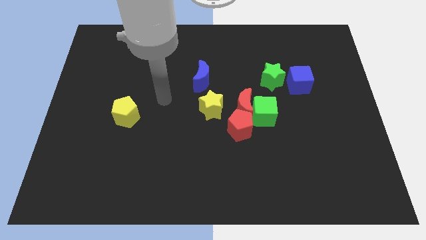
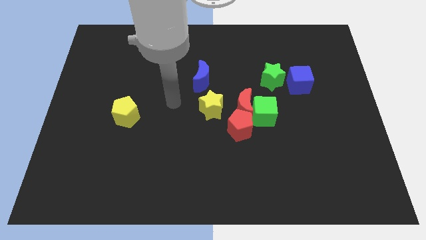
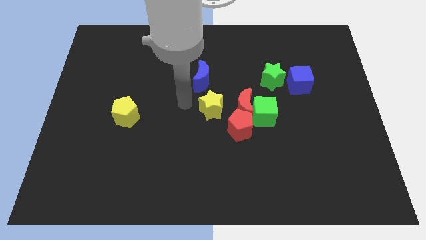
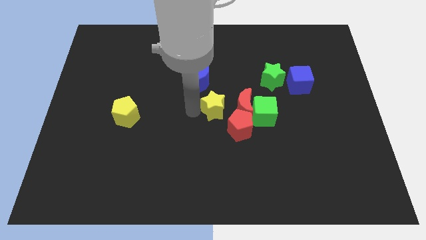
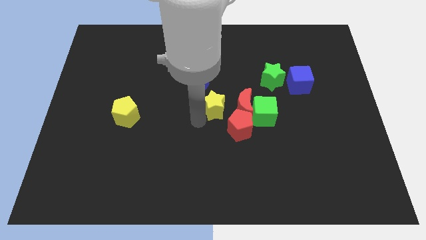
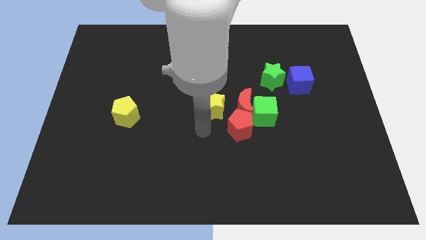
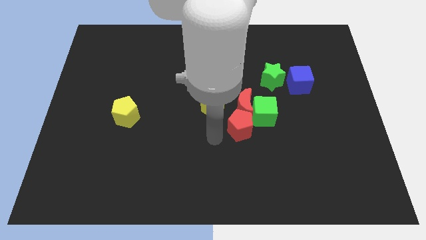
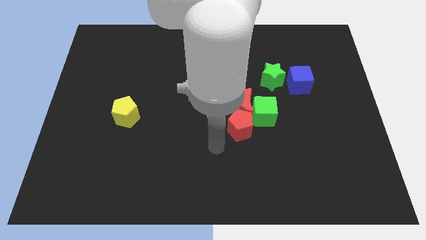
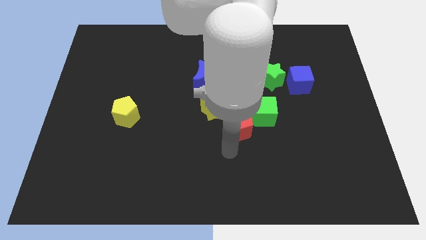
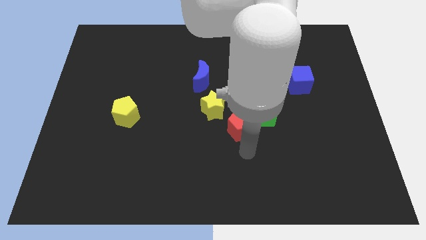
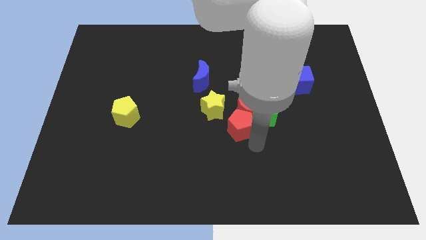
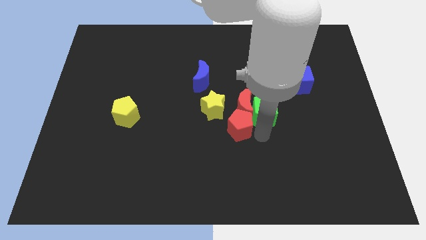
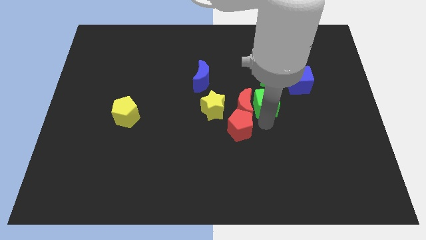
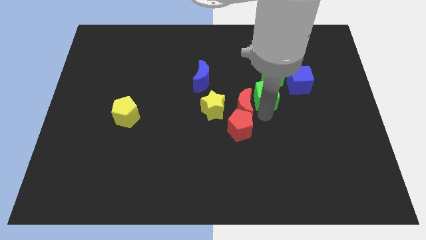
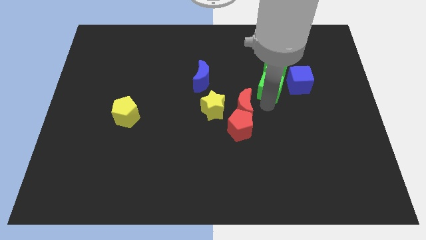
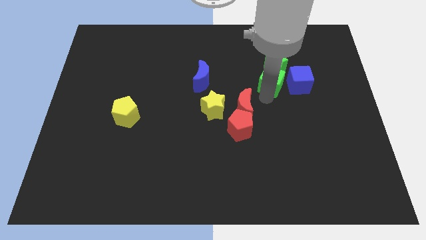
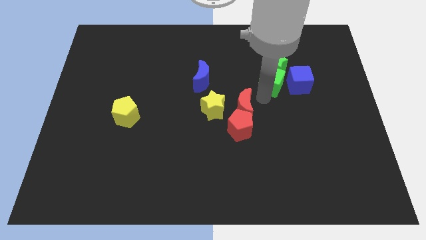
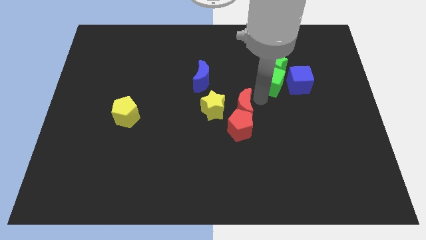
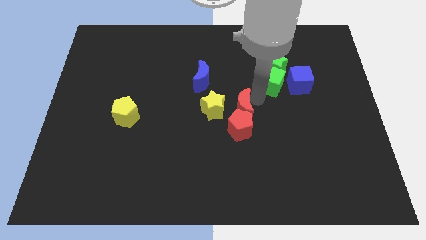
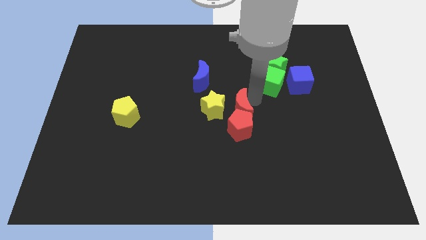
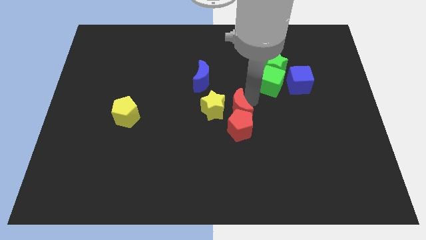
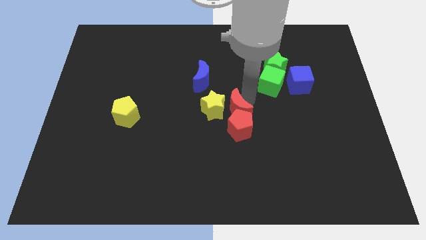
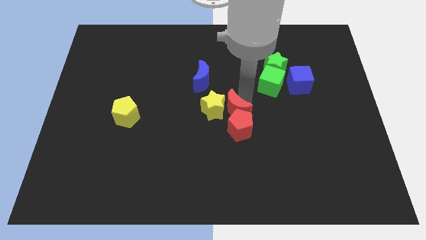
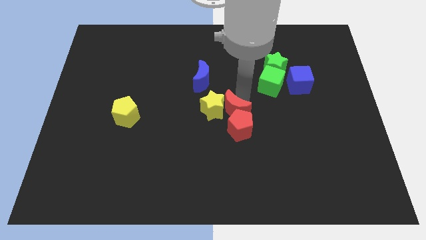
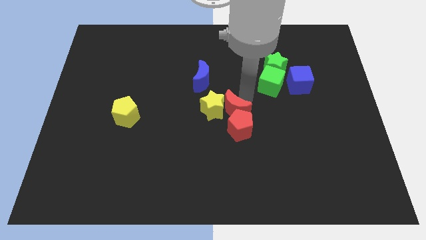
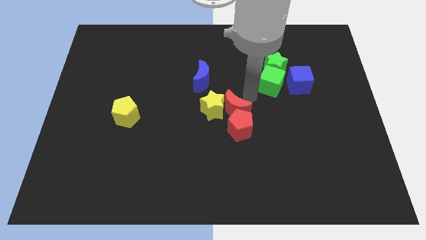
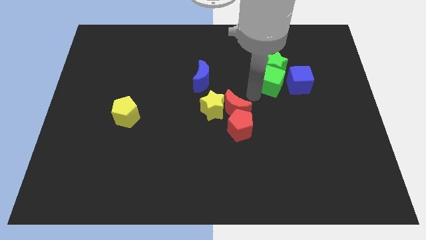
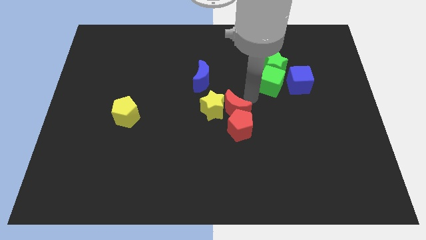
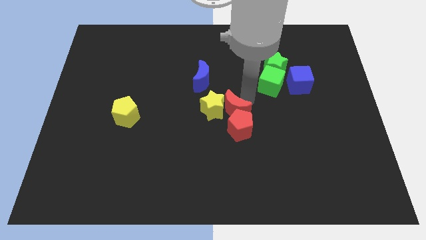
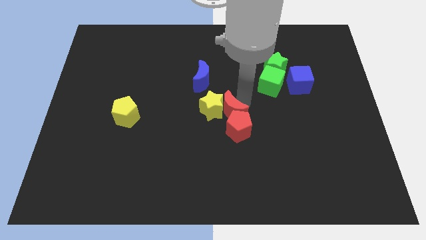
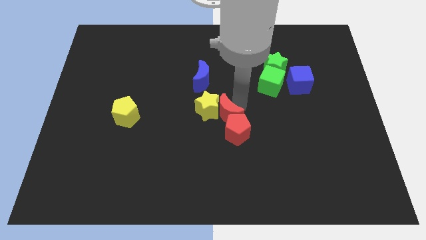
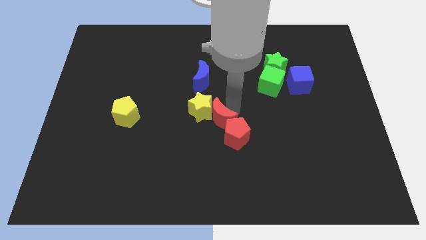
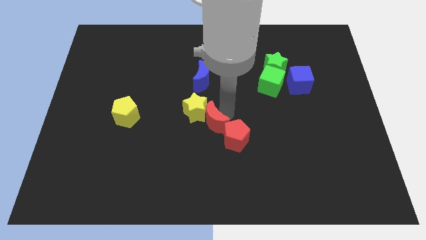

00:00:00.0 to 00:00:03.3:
push the red moon slightly downwards and left diagonally

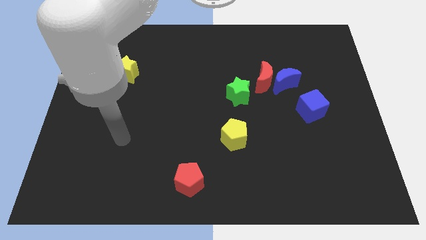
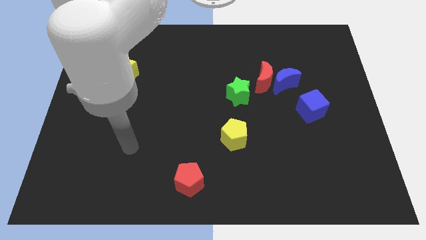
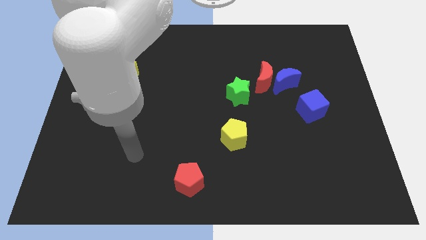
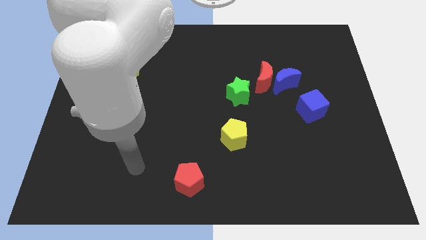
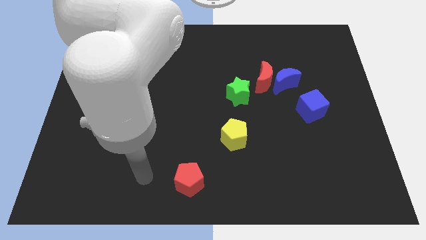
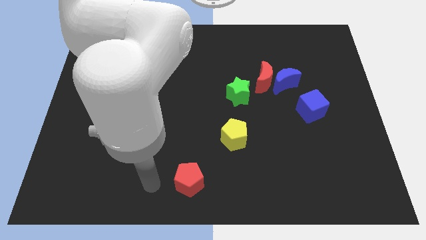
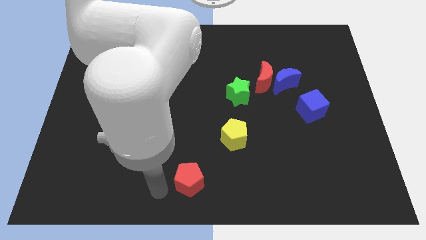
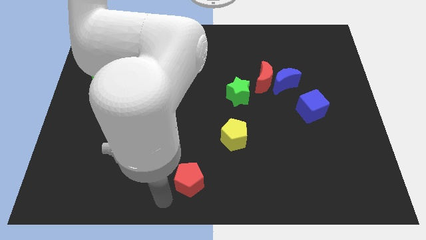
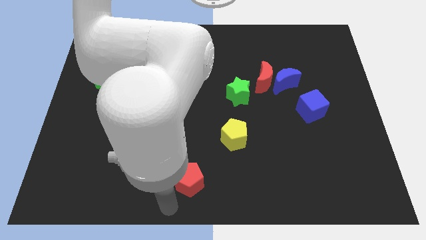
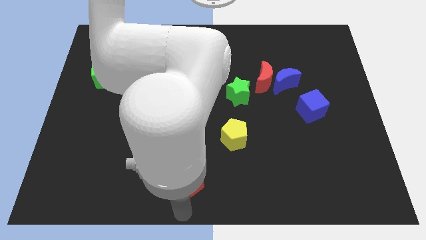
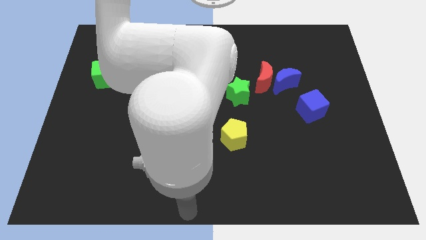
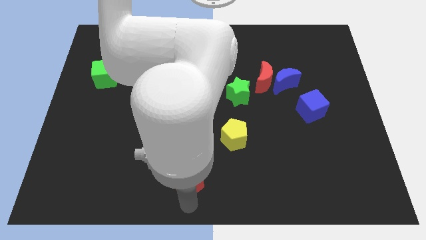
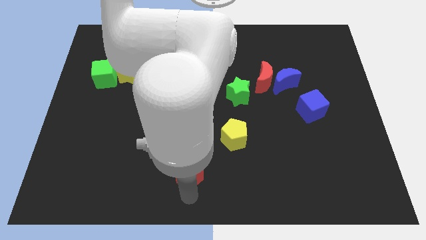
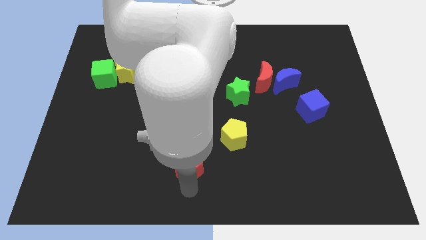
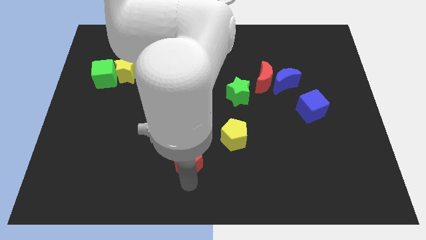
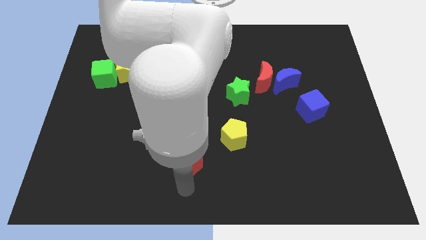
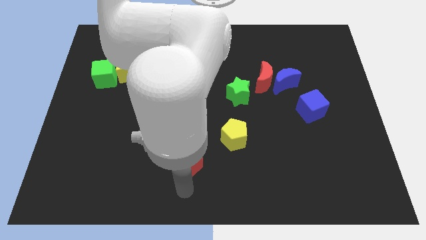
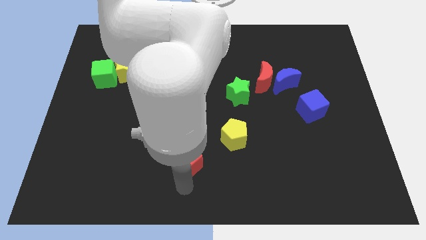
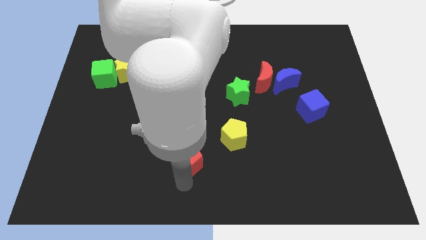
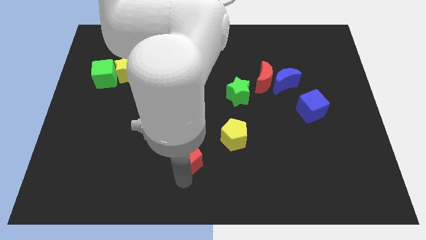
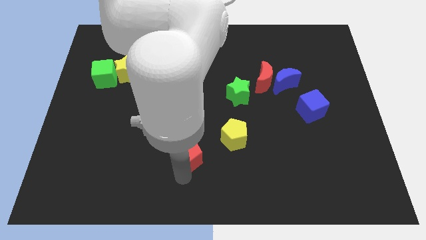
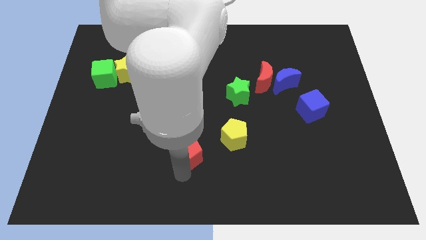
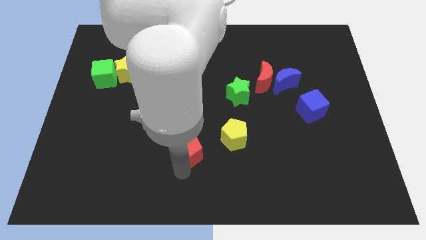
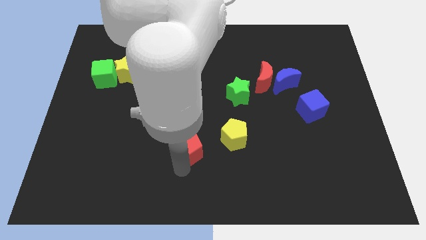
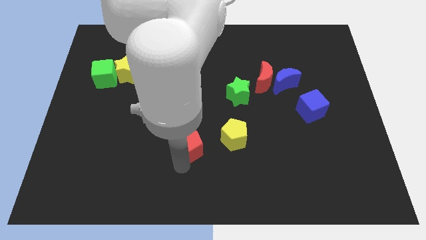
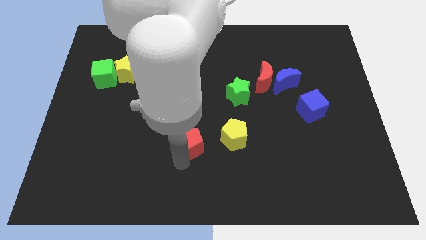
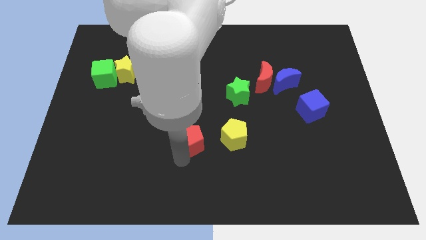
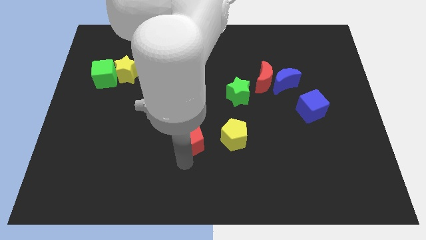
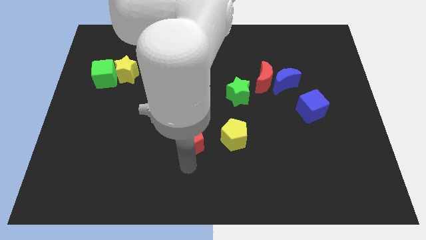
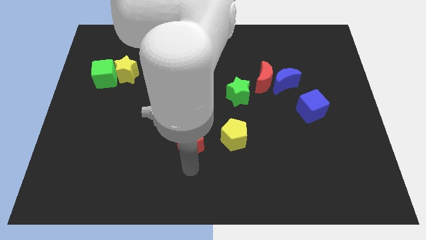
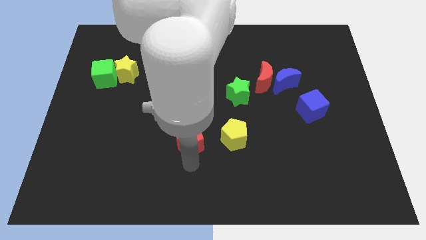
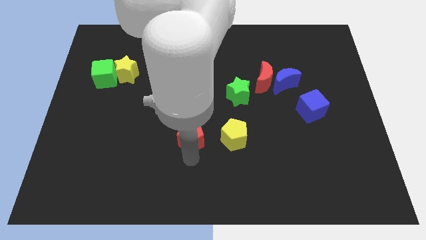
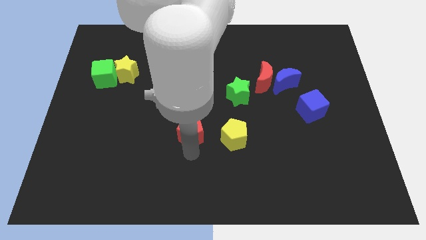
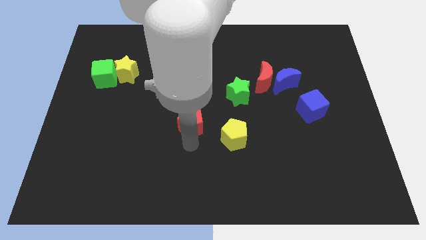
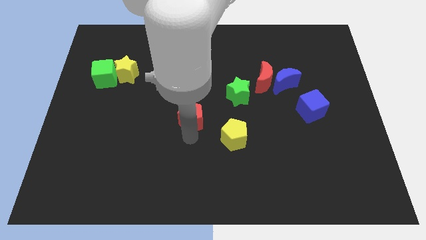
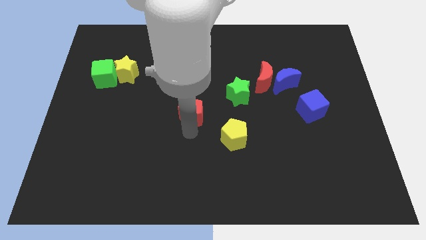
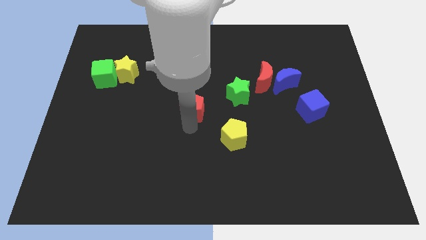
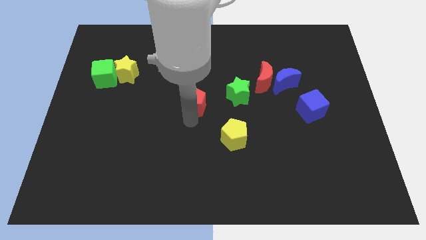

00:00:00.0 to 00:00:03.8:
slide the red pentagon upwards

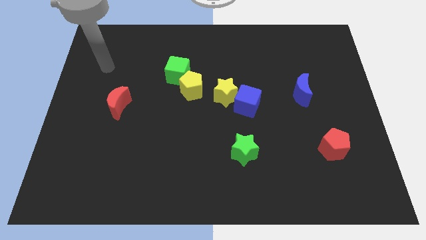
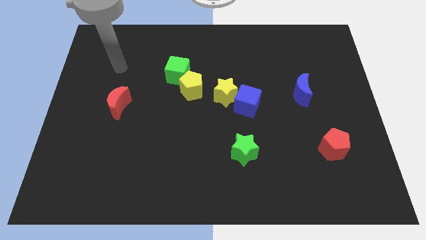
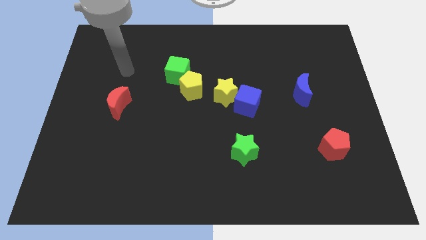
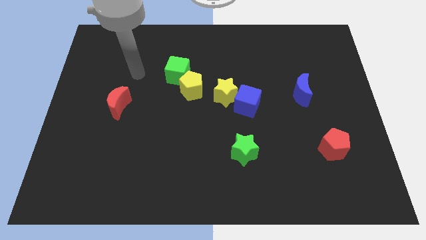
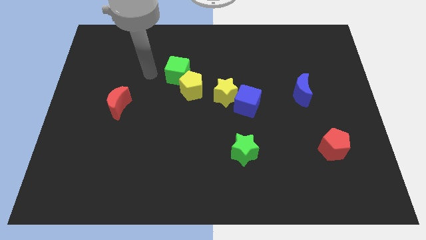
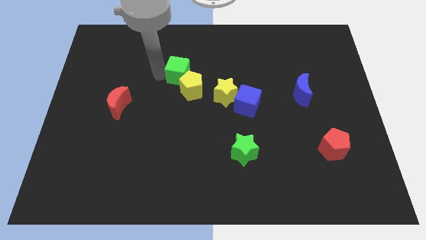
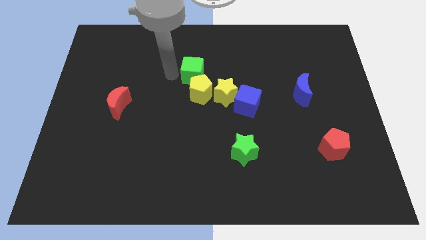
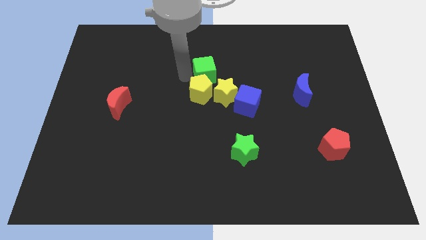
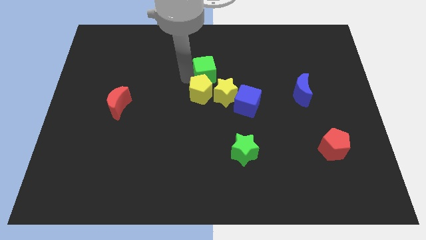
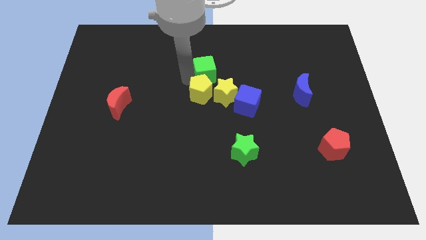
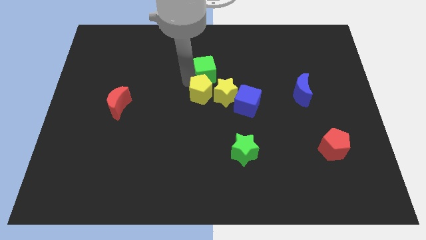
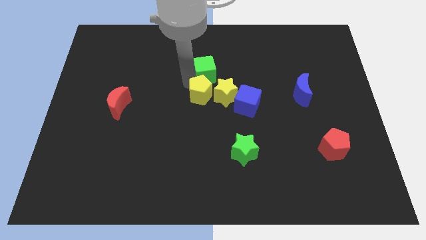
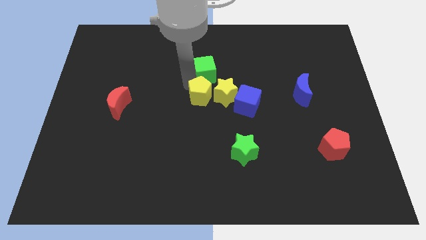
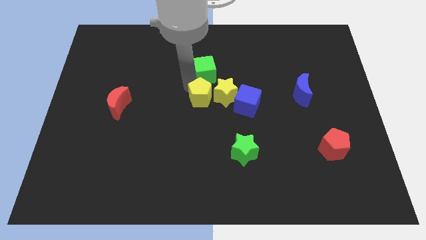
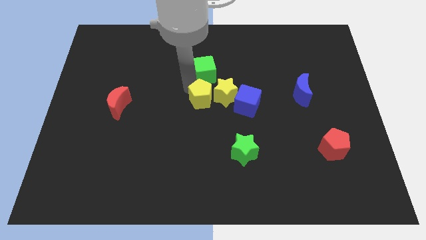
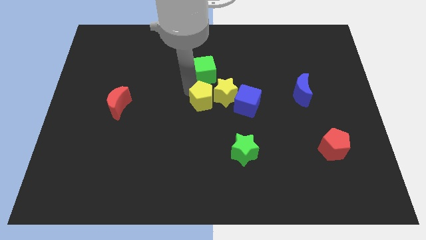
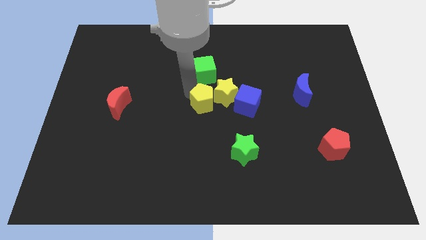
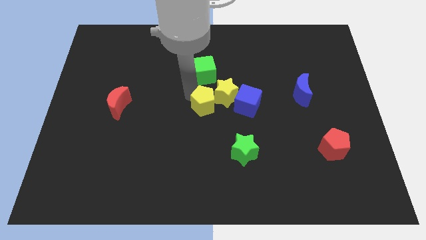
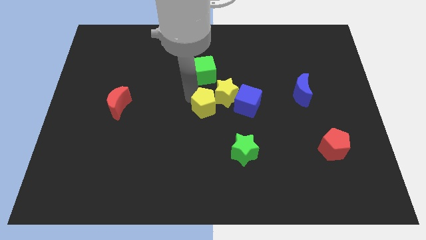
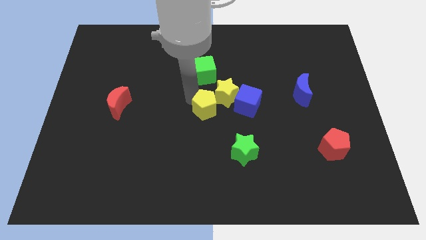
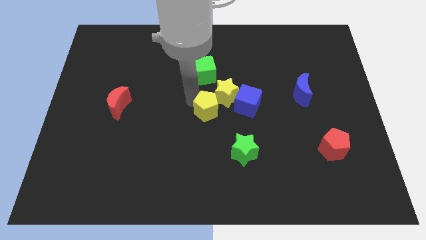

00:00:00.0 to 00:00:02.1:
move the yellow pentagon downwards and to the right somewhat
